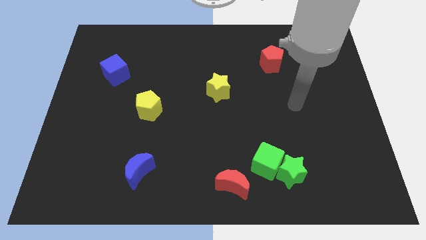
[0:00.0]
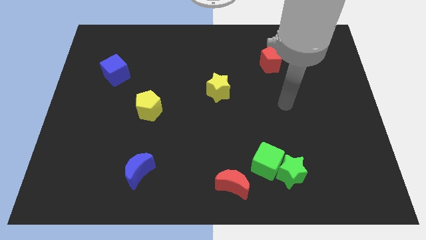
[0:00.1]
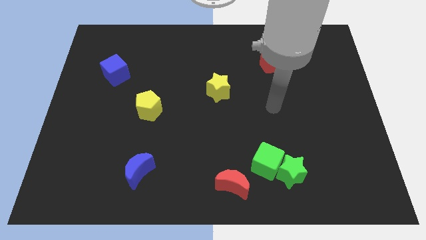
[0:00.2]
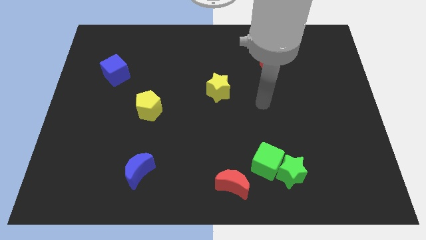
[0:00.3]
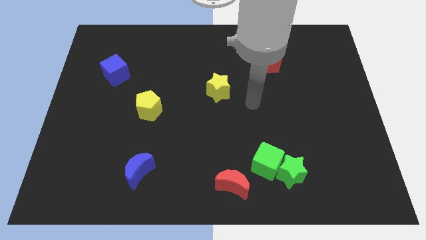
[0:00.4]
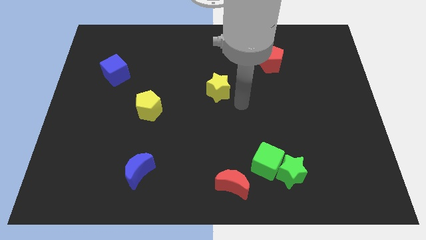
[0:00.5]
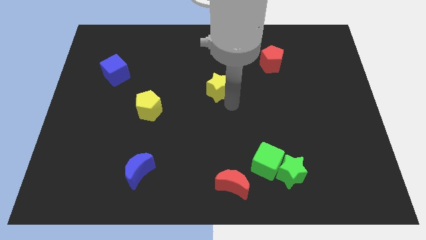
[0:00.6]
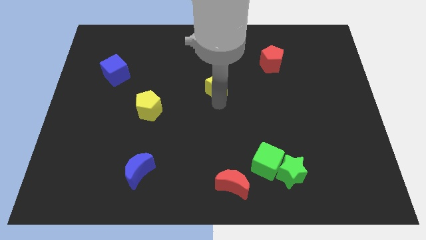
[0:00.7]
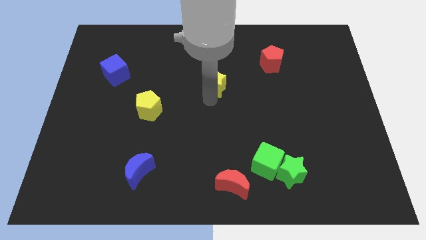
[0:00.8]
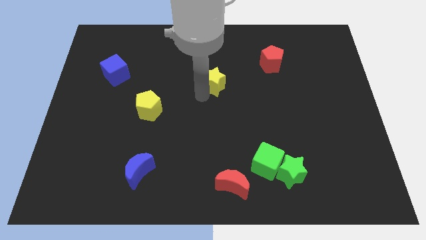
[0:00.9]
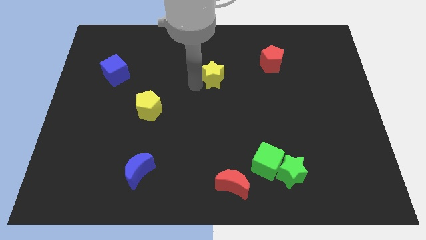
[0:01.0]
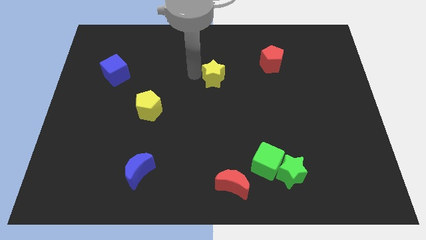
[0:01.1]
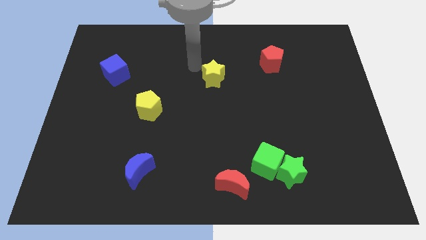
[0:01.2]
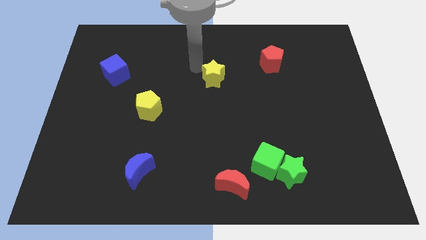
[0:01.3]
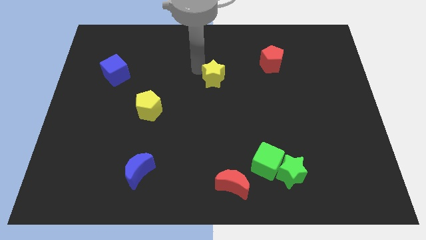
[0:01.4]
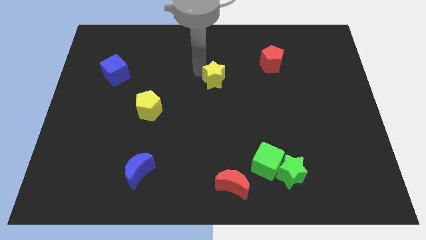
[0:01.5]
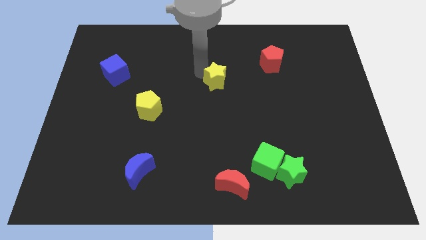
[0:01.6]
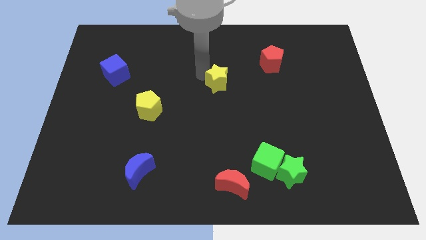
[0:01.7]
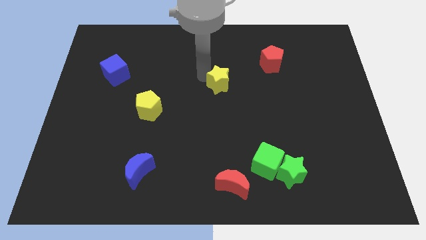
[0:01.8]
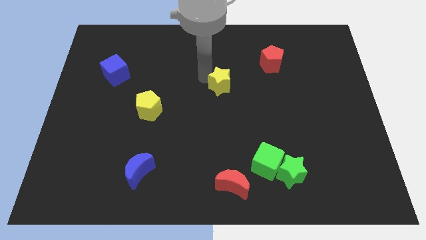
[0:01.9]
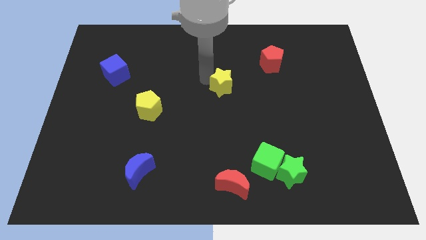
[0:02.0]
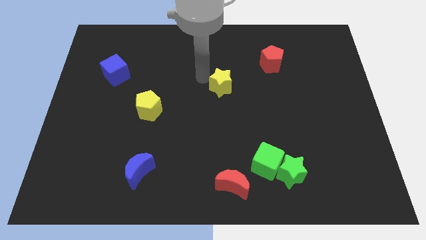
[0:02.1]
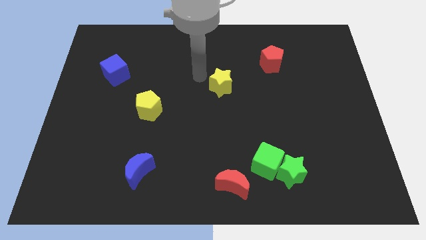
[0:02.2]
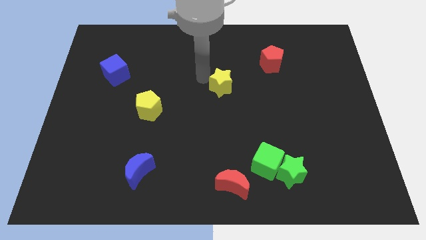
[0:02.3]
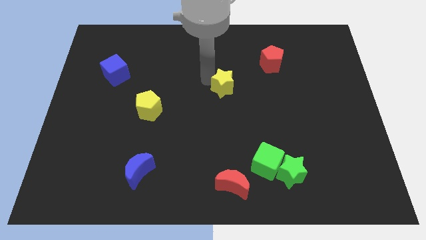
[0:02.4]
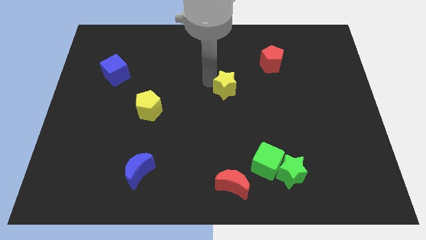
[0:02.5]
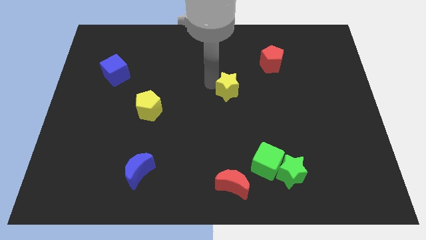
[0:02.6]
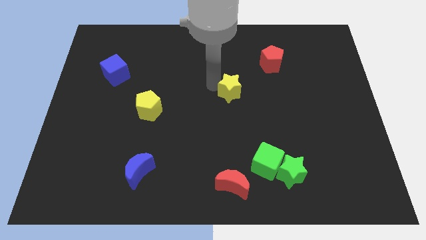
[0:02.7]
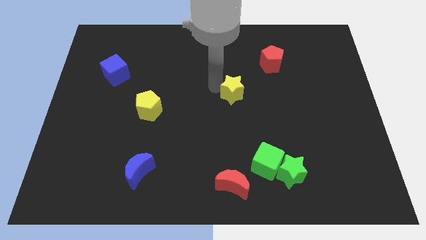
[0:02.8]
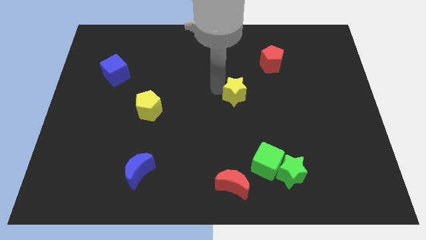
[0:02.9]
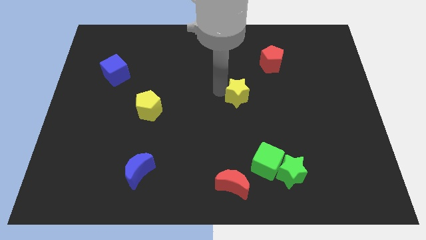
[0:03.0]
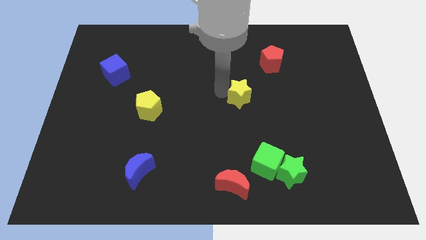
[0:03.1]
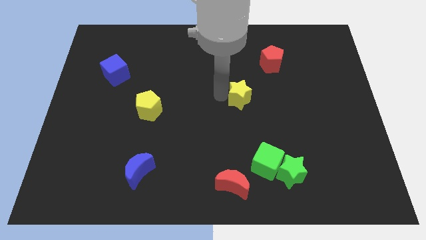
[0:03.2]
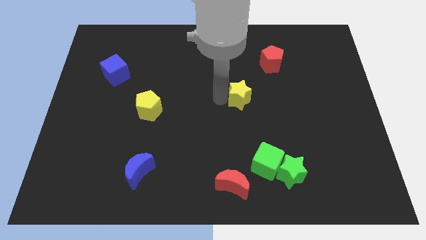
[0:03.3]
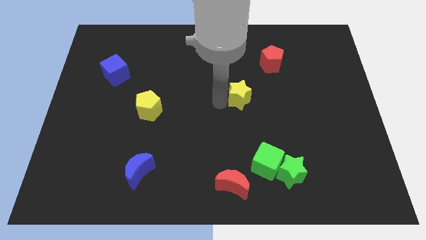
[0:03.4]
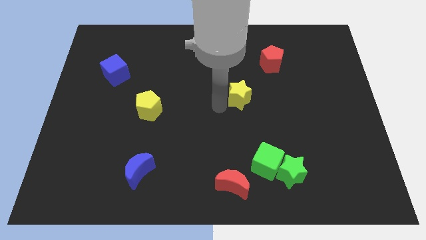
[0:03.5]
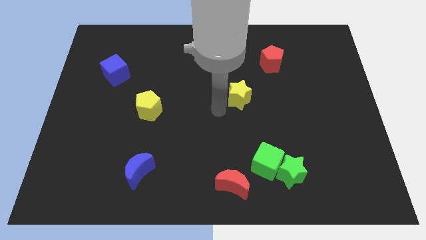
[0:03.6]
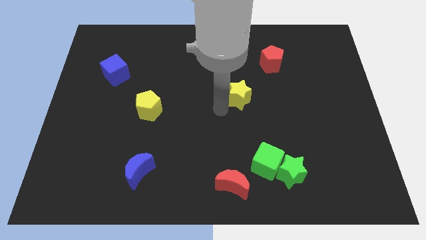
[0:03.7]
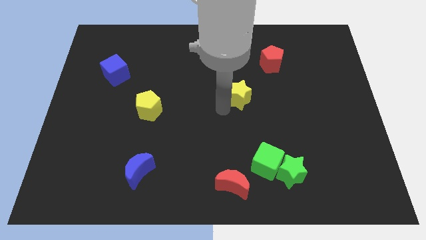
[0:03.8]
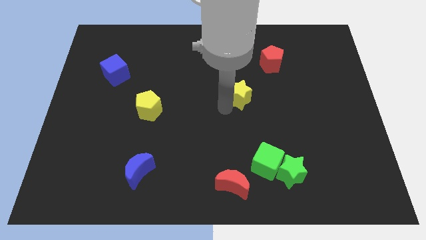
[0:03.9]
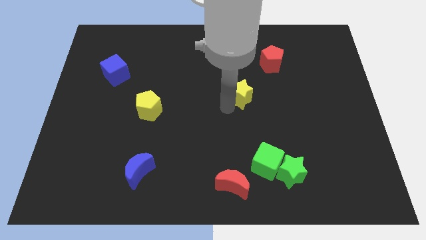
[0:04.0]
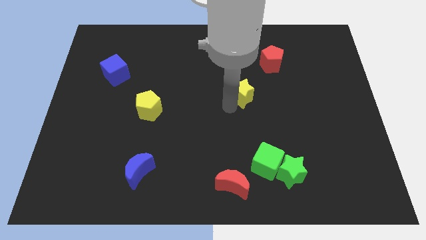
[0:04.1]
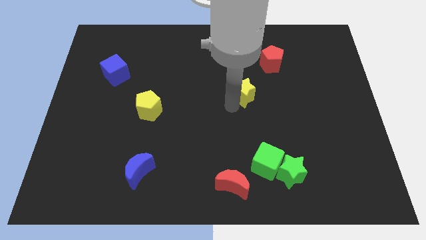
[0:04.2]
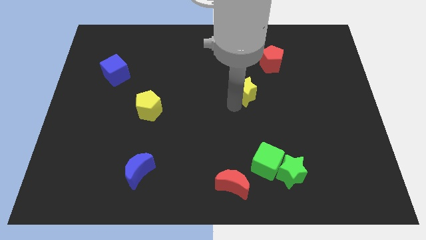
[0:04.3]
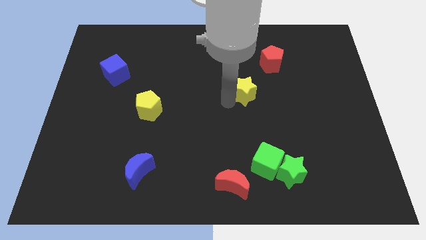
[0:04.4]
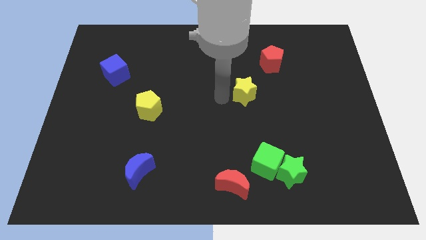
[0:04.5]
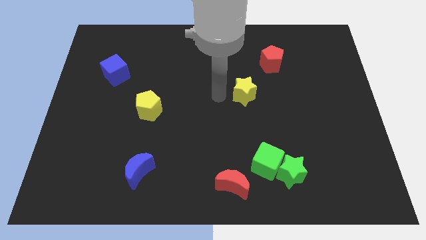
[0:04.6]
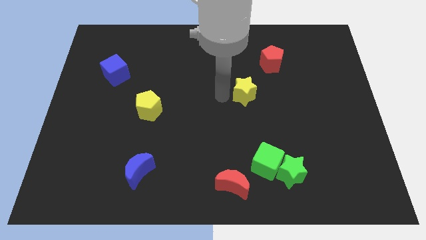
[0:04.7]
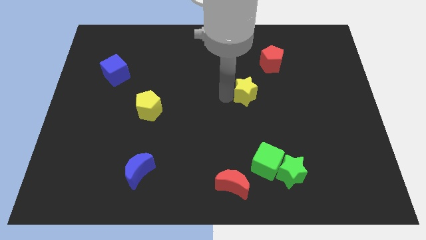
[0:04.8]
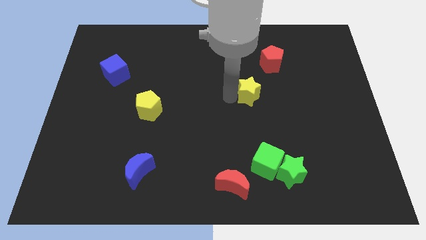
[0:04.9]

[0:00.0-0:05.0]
slightly move the yellow star to the right

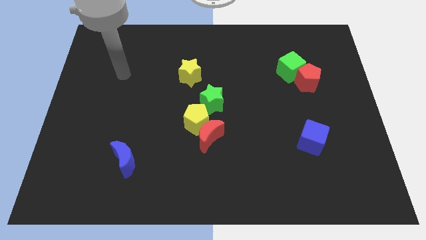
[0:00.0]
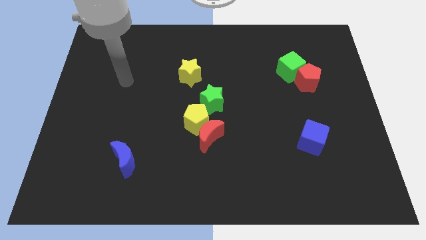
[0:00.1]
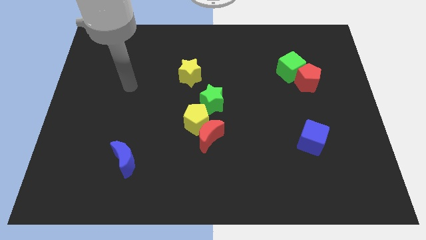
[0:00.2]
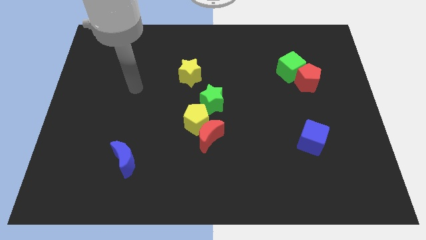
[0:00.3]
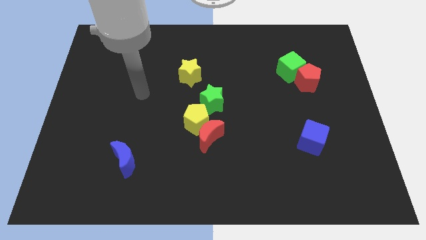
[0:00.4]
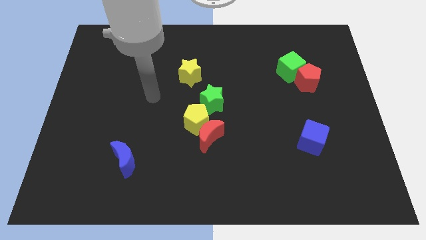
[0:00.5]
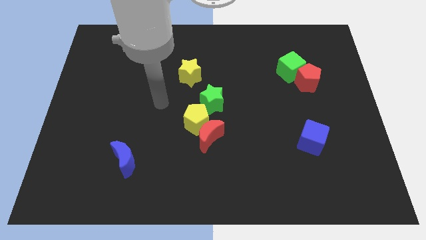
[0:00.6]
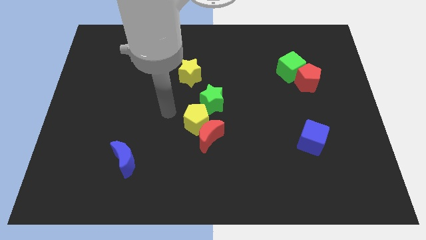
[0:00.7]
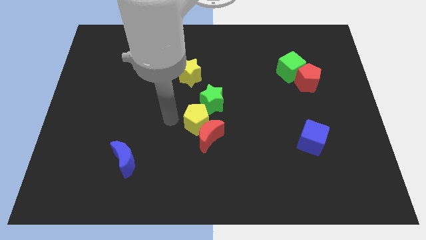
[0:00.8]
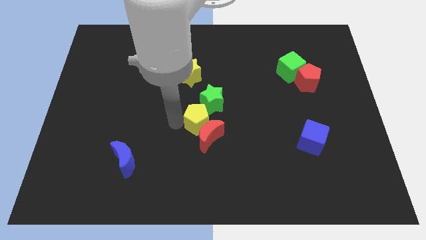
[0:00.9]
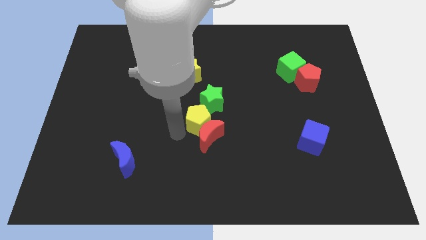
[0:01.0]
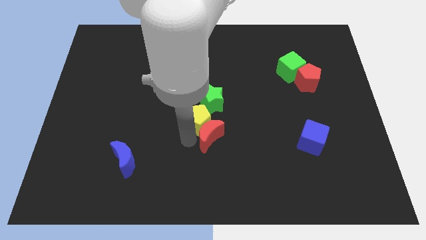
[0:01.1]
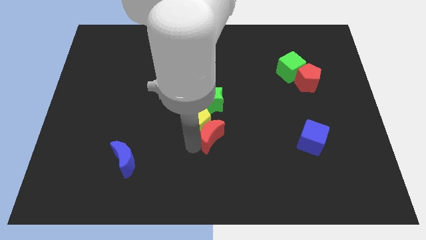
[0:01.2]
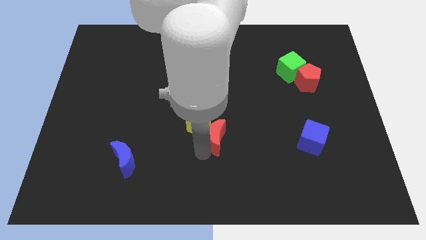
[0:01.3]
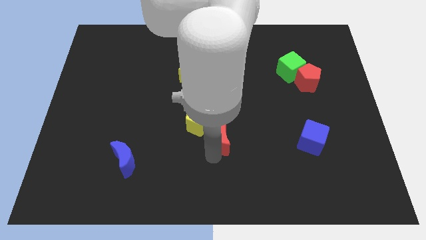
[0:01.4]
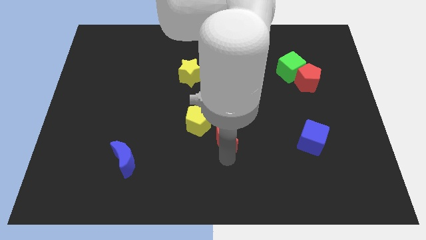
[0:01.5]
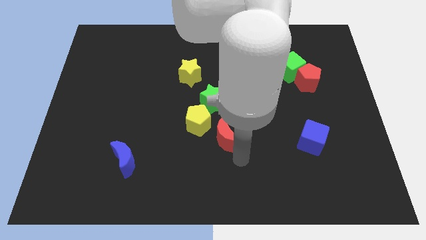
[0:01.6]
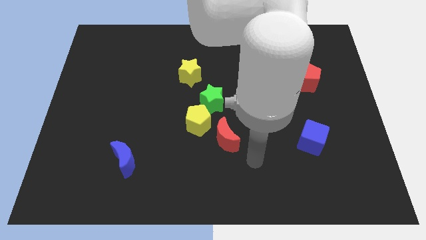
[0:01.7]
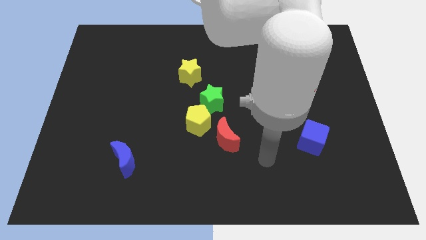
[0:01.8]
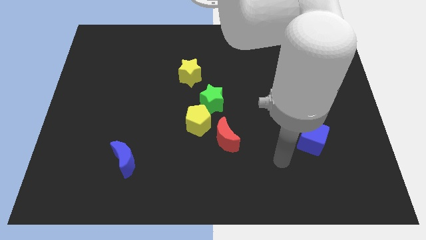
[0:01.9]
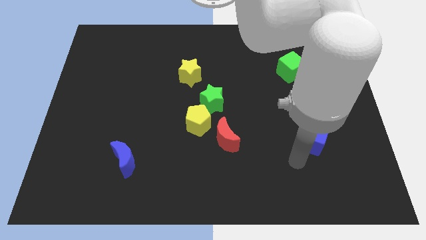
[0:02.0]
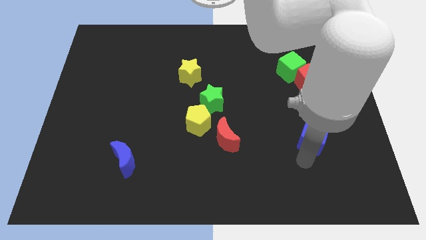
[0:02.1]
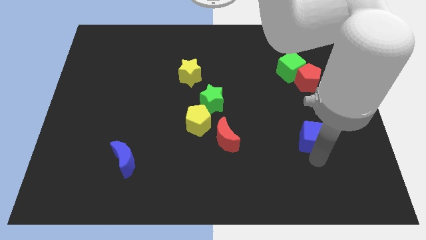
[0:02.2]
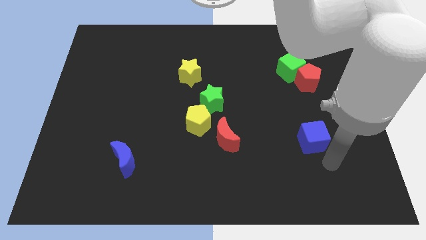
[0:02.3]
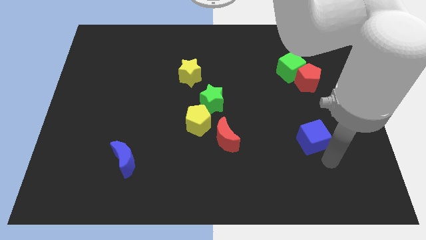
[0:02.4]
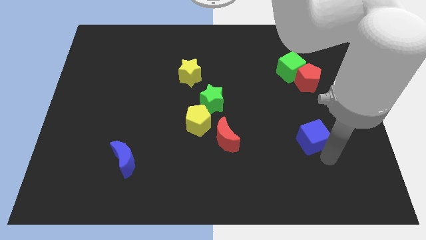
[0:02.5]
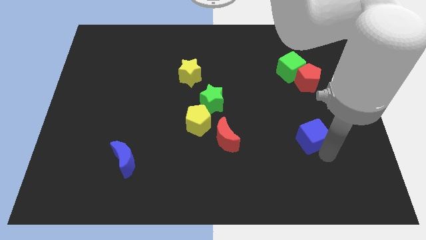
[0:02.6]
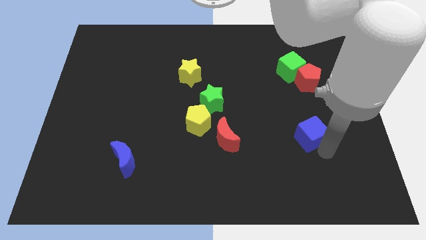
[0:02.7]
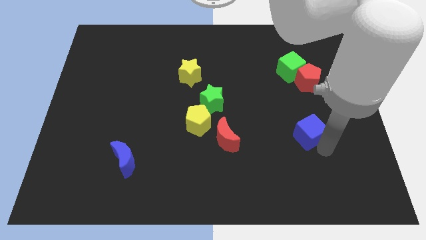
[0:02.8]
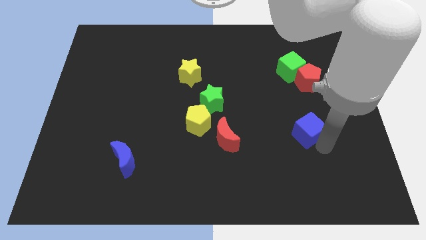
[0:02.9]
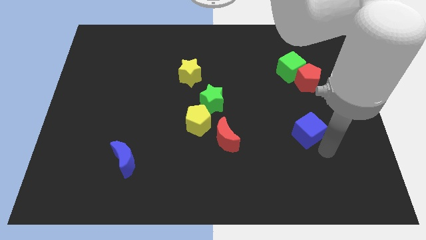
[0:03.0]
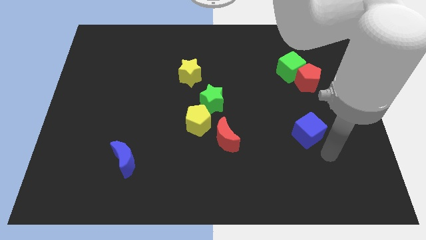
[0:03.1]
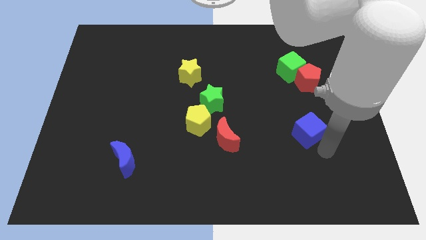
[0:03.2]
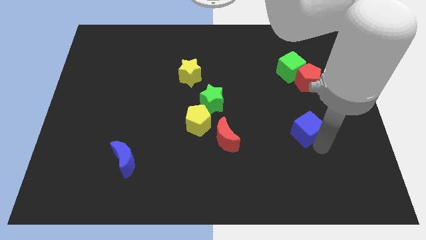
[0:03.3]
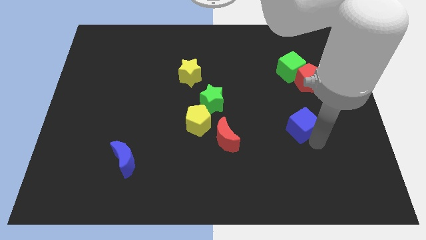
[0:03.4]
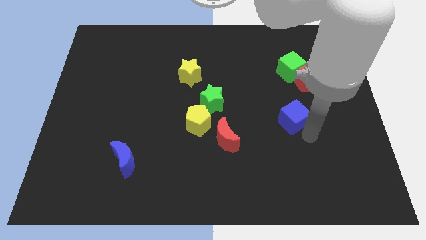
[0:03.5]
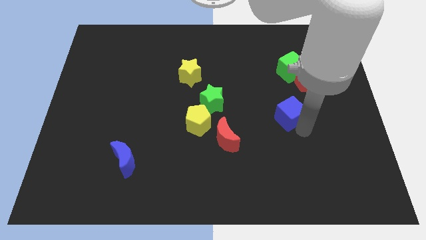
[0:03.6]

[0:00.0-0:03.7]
push the blue cube diagonally upwards and to the left a little bit

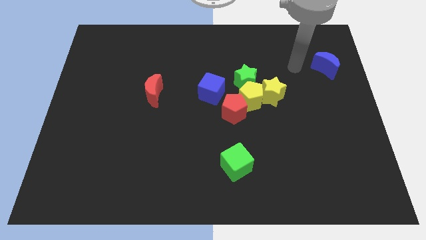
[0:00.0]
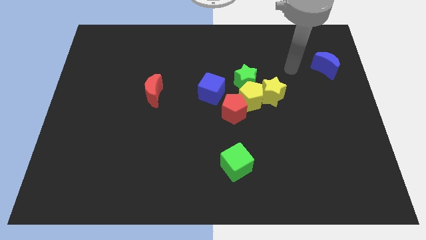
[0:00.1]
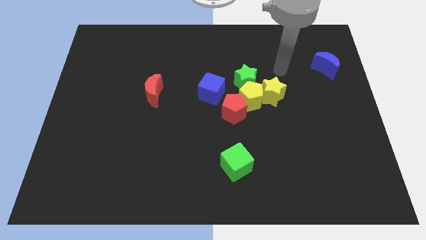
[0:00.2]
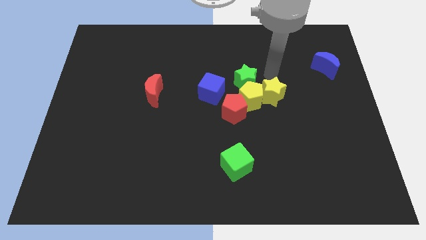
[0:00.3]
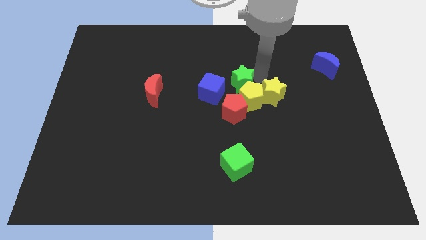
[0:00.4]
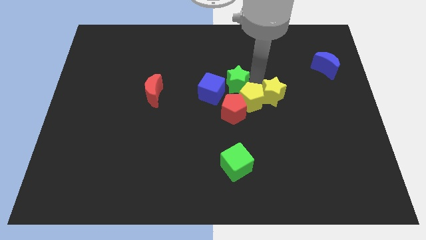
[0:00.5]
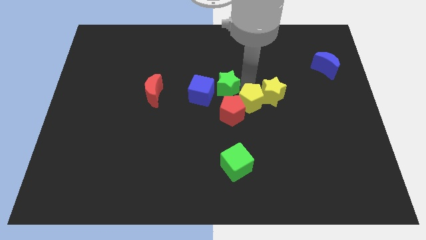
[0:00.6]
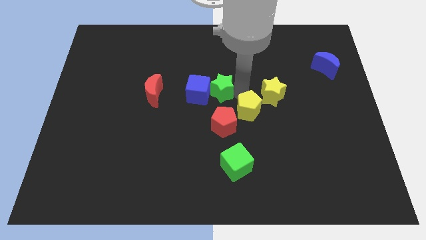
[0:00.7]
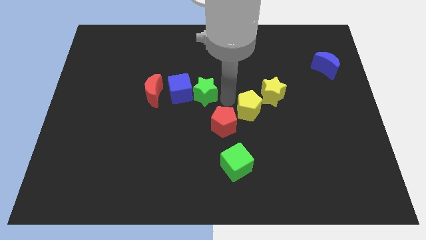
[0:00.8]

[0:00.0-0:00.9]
slightly push the blue cube to the left
